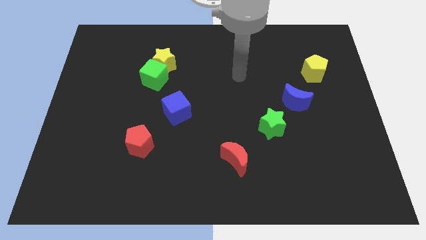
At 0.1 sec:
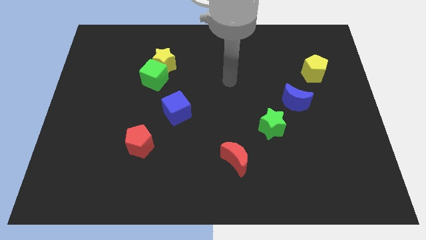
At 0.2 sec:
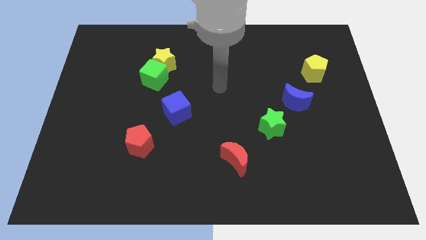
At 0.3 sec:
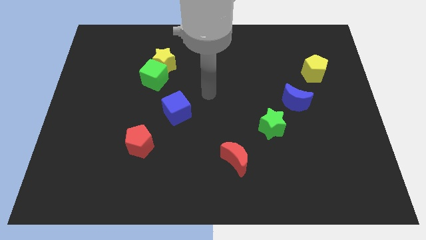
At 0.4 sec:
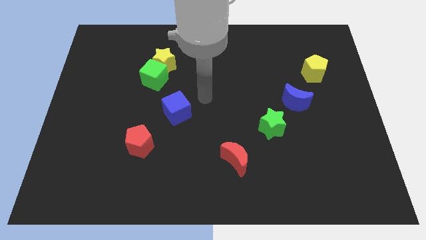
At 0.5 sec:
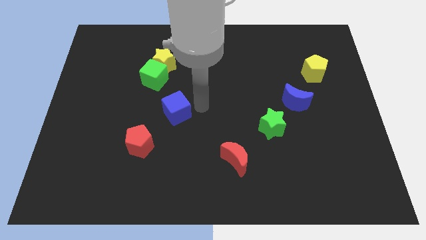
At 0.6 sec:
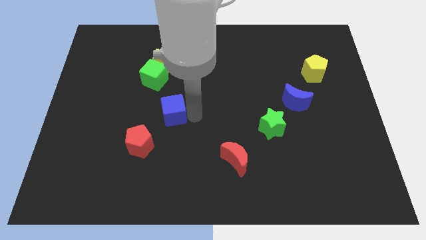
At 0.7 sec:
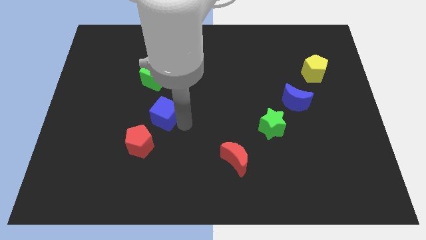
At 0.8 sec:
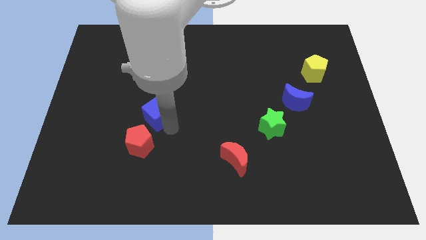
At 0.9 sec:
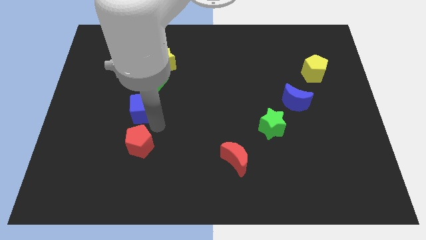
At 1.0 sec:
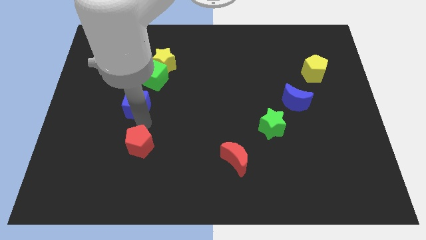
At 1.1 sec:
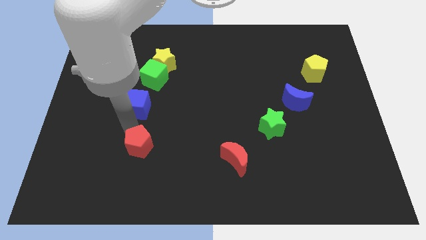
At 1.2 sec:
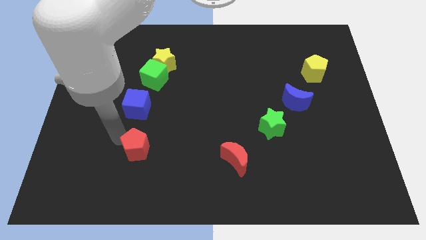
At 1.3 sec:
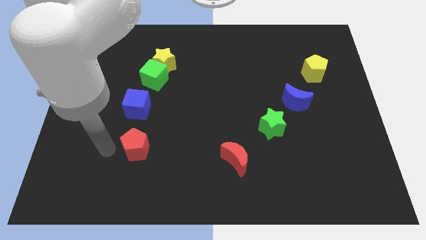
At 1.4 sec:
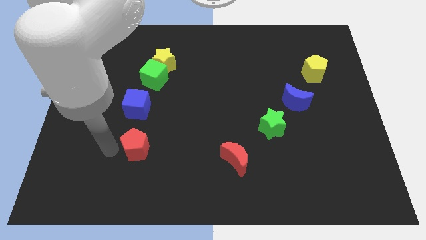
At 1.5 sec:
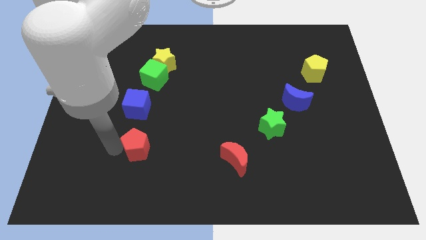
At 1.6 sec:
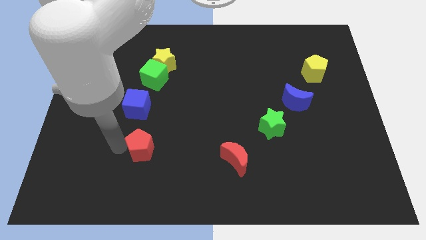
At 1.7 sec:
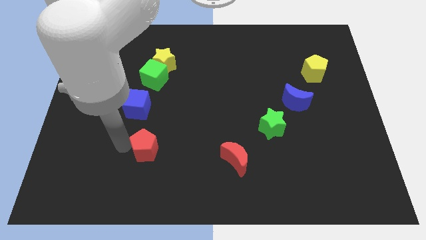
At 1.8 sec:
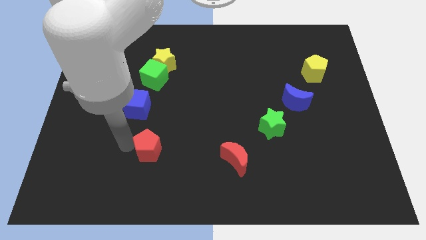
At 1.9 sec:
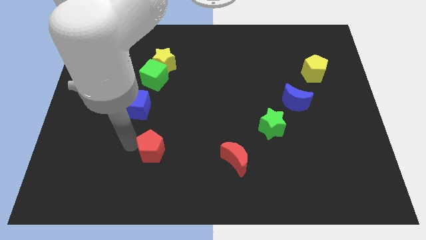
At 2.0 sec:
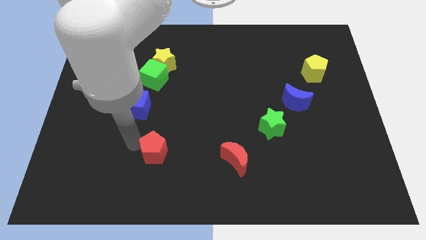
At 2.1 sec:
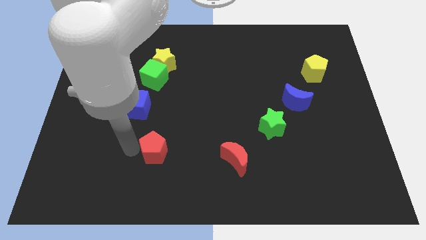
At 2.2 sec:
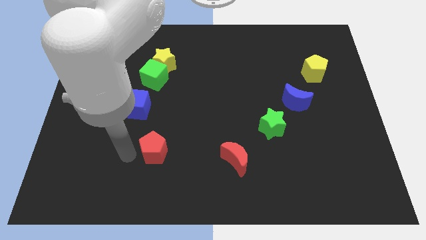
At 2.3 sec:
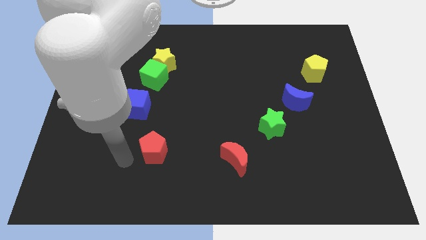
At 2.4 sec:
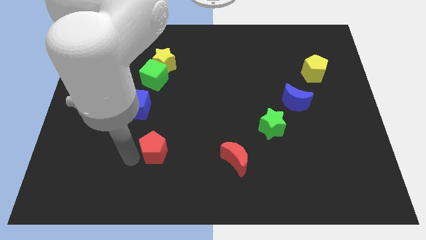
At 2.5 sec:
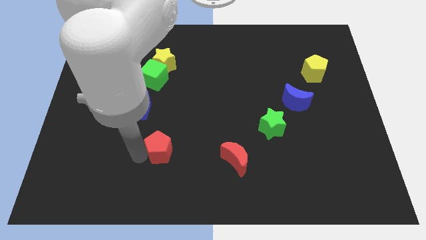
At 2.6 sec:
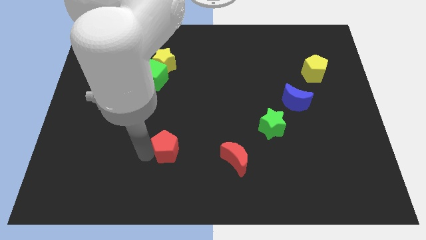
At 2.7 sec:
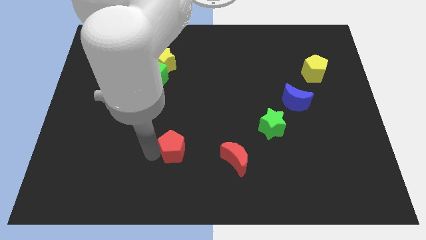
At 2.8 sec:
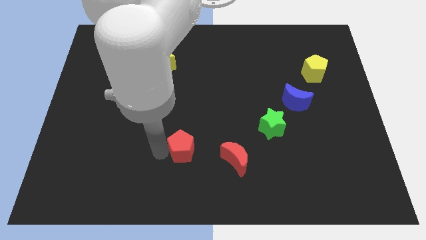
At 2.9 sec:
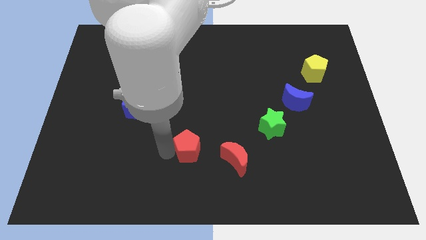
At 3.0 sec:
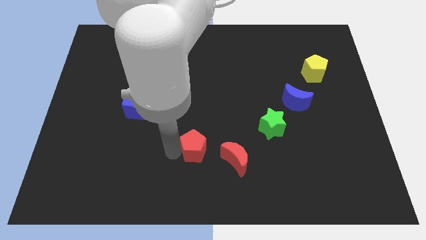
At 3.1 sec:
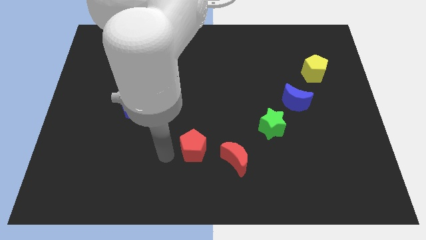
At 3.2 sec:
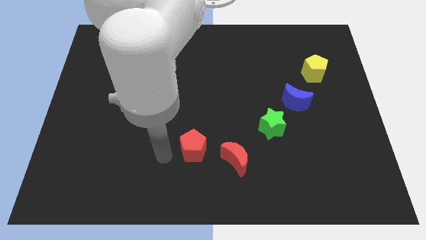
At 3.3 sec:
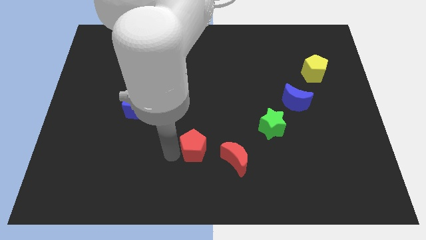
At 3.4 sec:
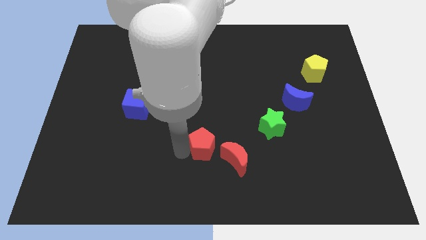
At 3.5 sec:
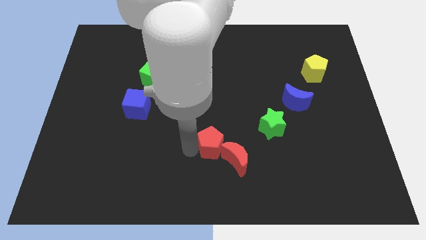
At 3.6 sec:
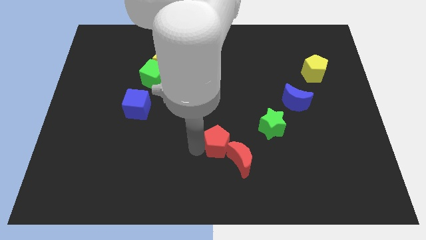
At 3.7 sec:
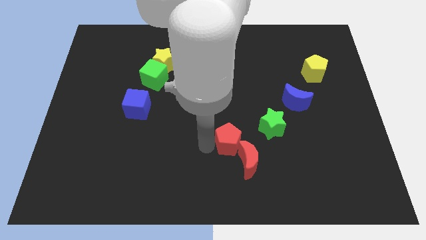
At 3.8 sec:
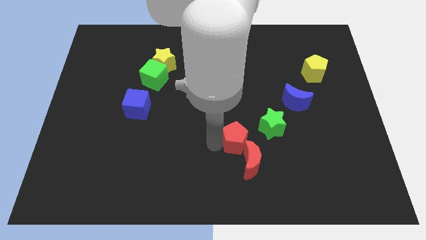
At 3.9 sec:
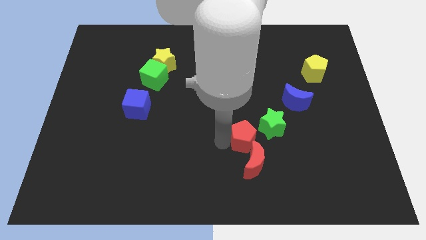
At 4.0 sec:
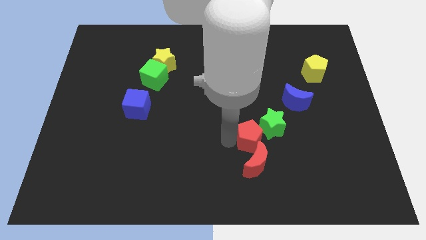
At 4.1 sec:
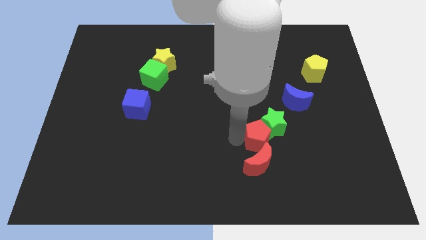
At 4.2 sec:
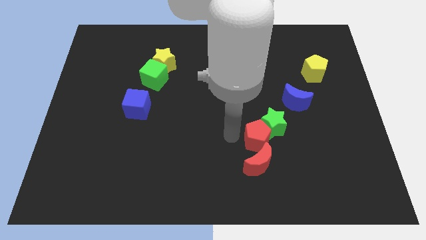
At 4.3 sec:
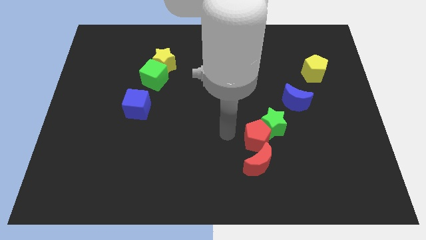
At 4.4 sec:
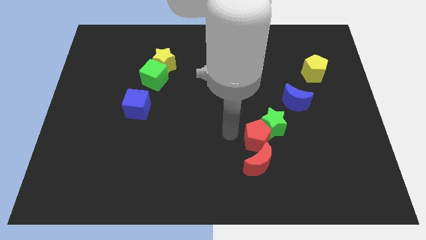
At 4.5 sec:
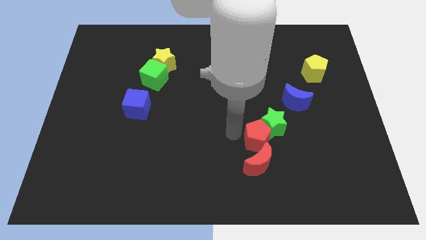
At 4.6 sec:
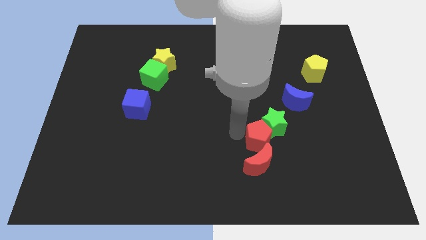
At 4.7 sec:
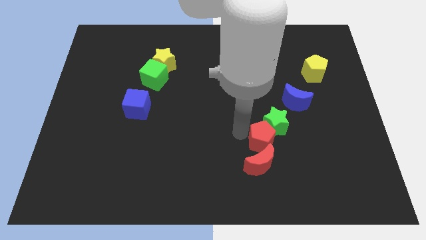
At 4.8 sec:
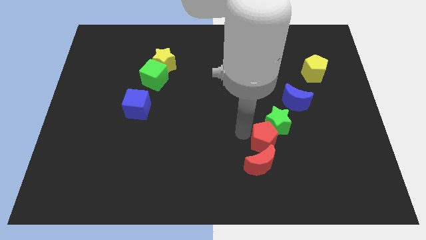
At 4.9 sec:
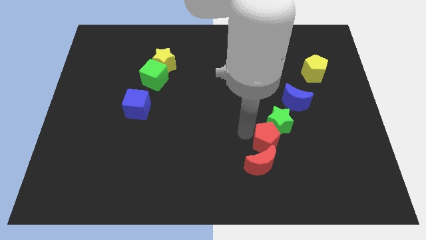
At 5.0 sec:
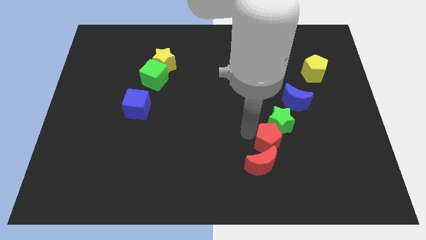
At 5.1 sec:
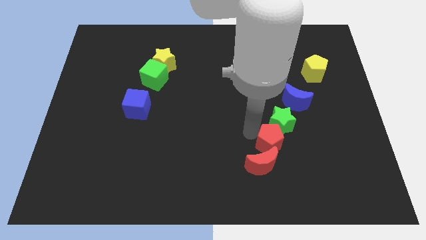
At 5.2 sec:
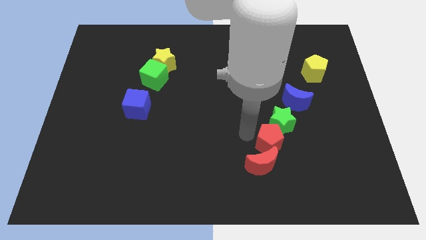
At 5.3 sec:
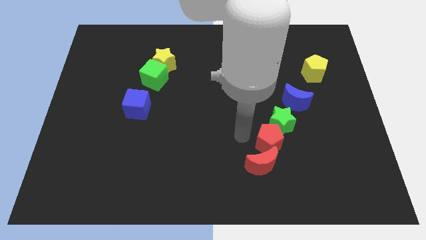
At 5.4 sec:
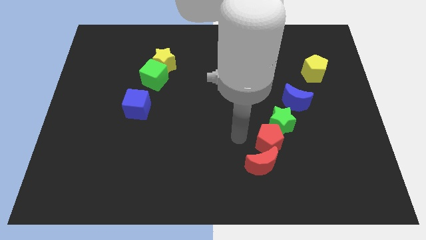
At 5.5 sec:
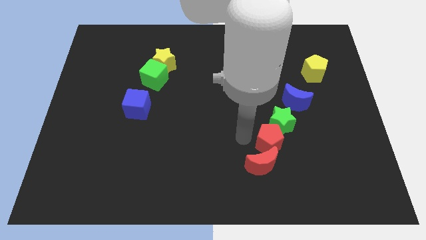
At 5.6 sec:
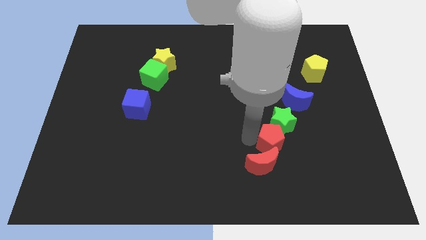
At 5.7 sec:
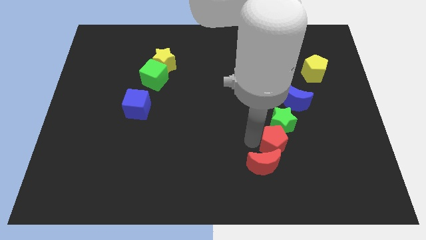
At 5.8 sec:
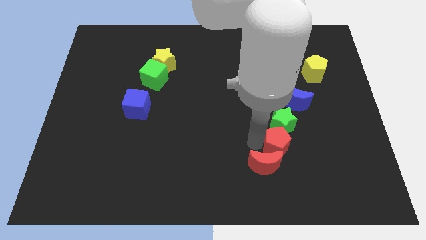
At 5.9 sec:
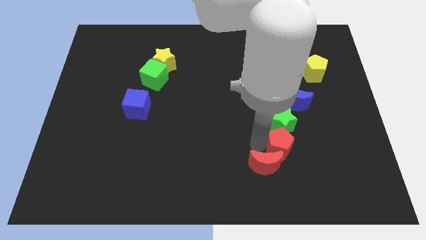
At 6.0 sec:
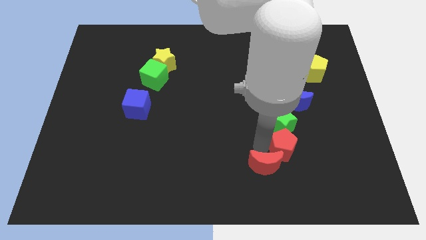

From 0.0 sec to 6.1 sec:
push the red pentagon below the blue moon

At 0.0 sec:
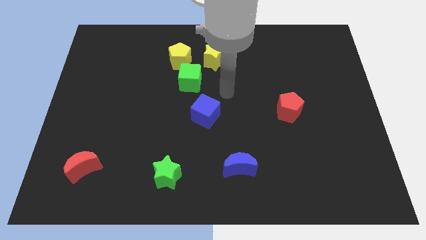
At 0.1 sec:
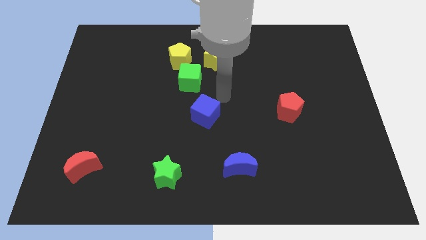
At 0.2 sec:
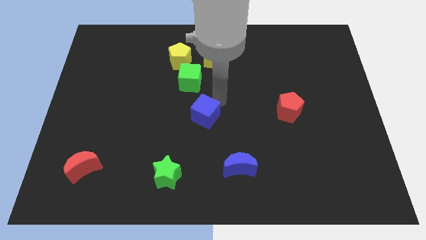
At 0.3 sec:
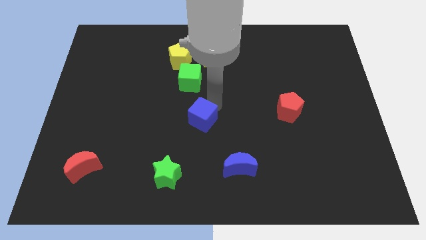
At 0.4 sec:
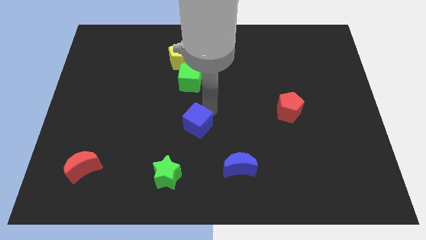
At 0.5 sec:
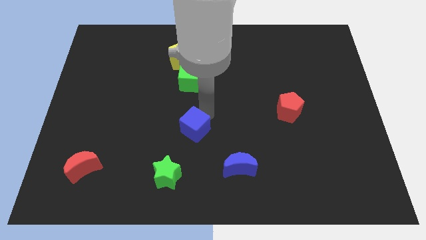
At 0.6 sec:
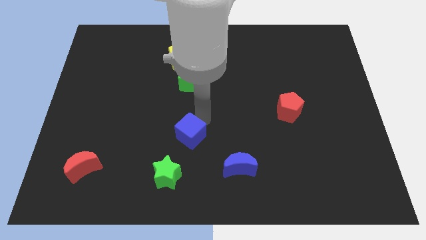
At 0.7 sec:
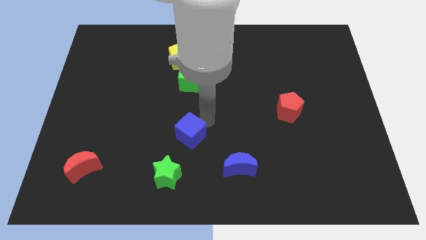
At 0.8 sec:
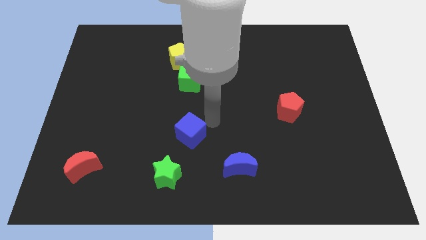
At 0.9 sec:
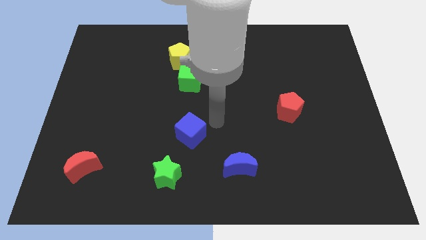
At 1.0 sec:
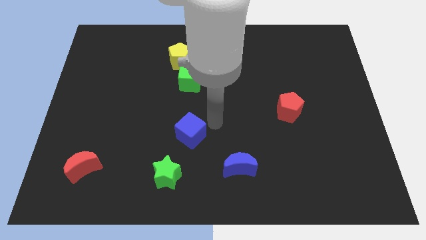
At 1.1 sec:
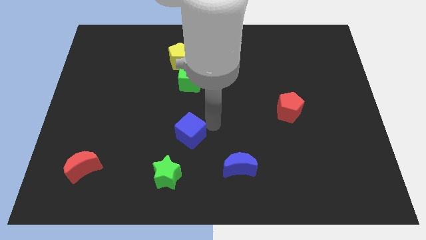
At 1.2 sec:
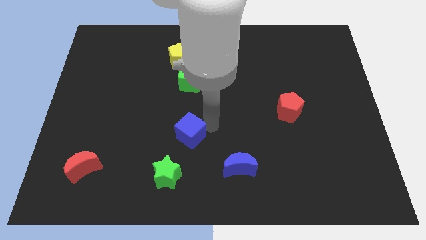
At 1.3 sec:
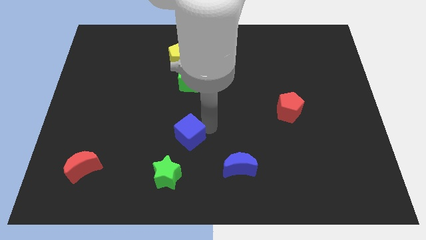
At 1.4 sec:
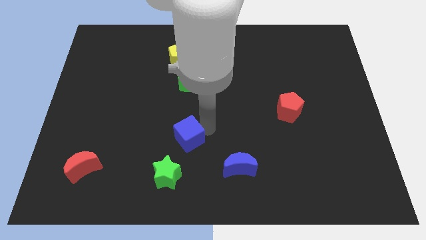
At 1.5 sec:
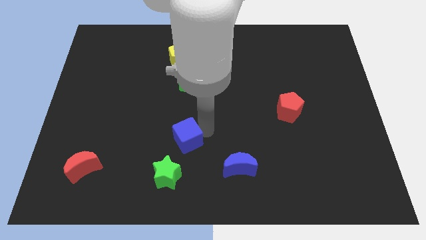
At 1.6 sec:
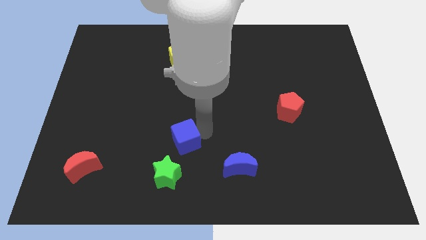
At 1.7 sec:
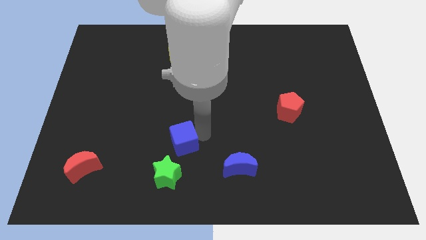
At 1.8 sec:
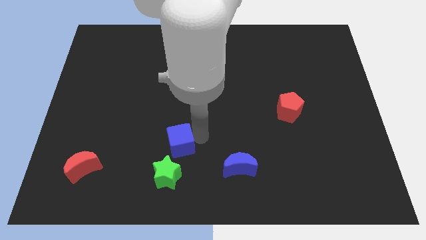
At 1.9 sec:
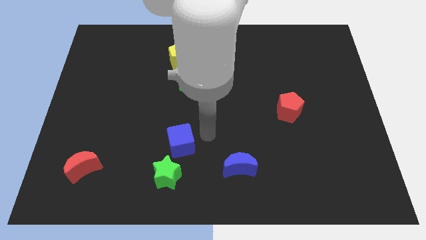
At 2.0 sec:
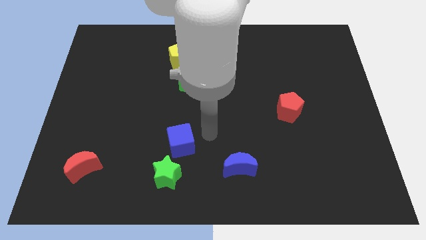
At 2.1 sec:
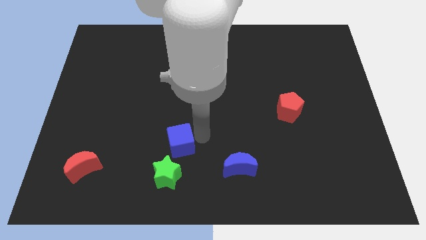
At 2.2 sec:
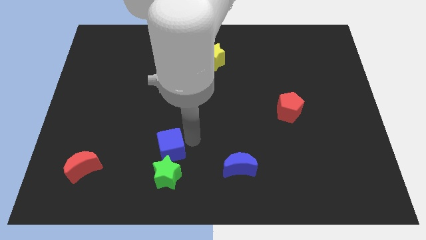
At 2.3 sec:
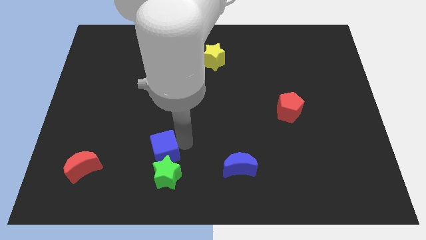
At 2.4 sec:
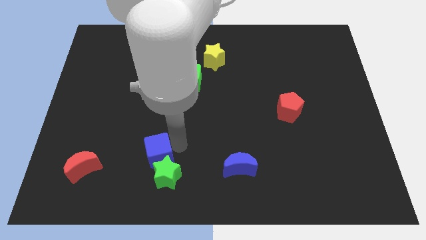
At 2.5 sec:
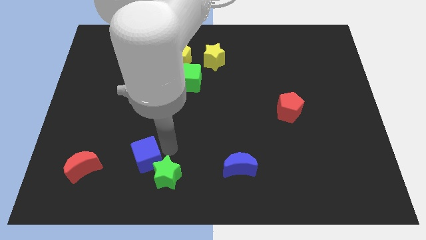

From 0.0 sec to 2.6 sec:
slide the blue cube left of the green star
